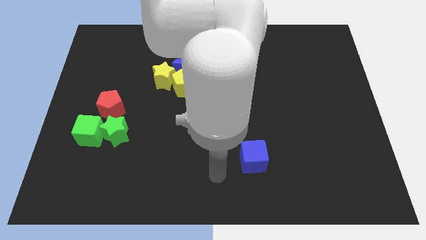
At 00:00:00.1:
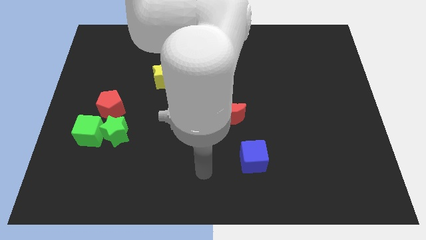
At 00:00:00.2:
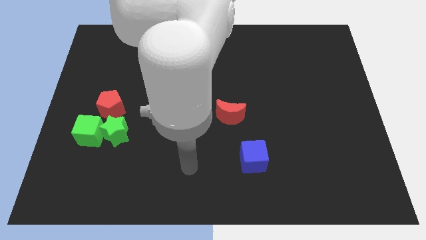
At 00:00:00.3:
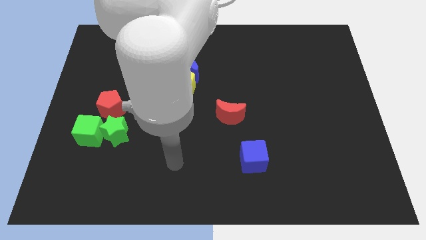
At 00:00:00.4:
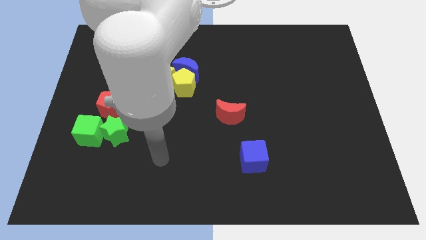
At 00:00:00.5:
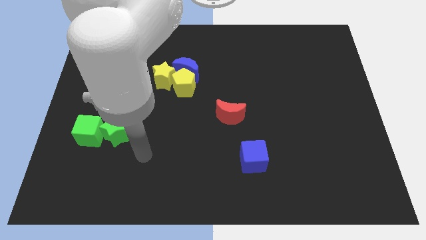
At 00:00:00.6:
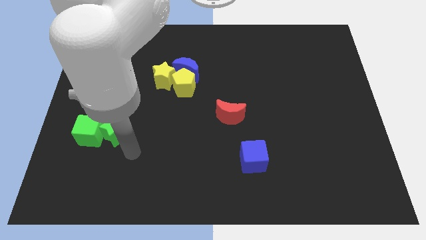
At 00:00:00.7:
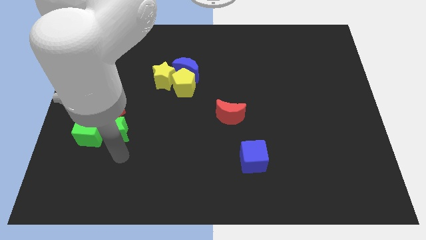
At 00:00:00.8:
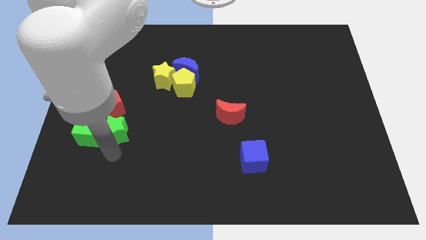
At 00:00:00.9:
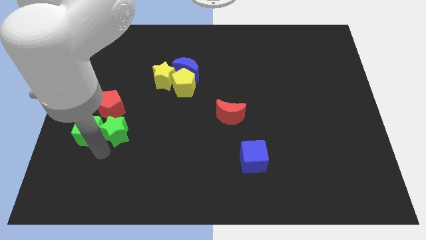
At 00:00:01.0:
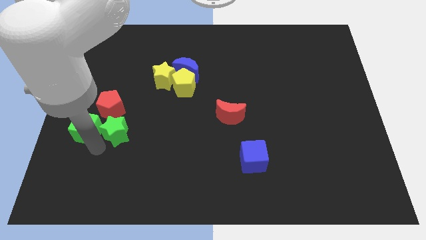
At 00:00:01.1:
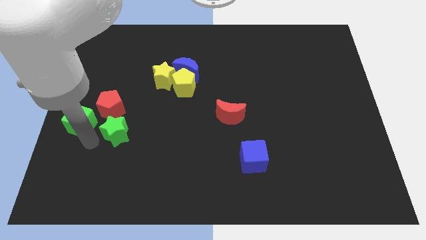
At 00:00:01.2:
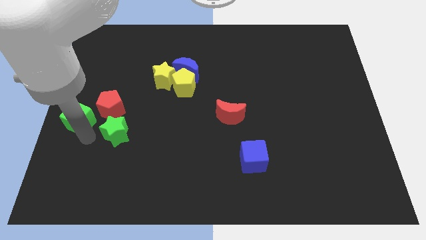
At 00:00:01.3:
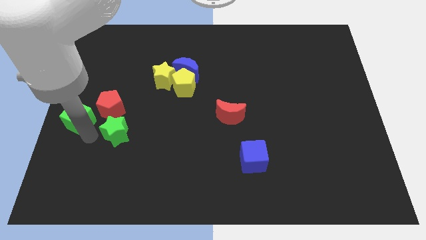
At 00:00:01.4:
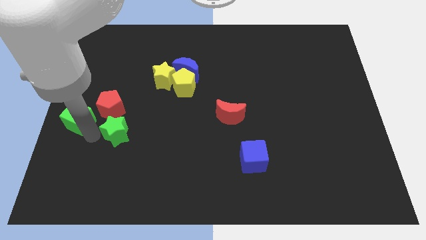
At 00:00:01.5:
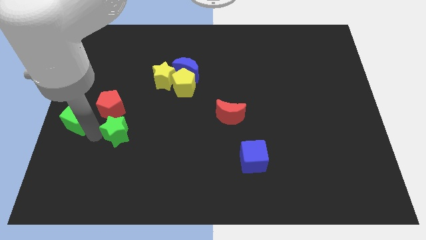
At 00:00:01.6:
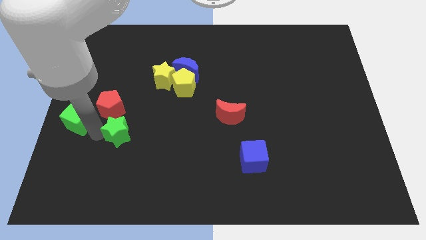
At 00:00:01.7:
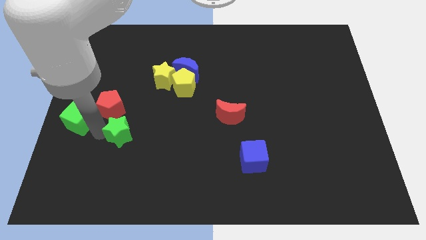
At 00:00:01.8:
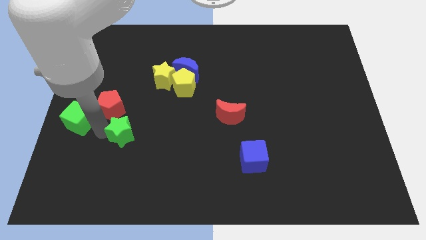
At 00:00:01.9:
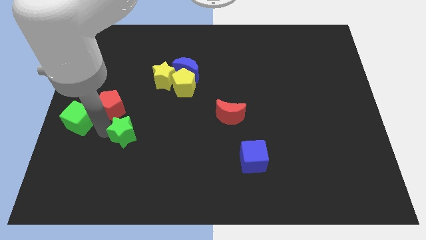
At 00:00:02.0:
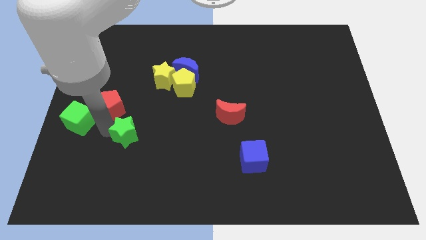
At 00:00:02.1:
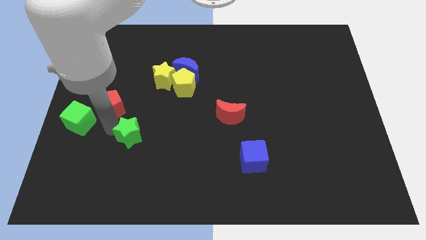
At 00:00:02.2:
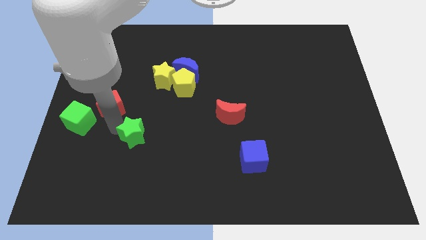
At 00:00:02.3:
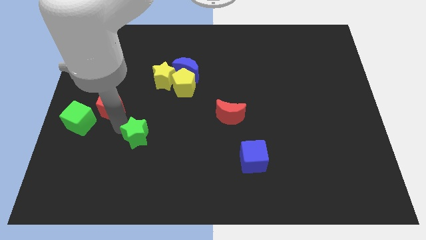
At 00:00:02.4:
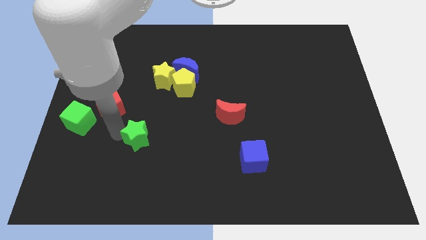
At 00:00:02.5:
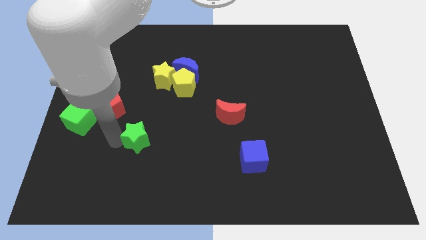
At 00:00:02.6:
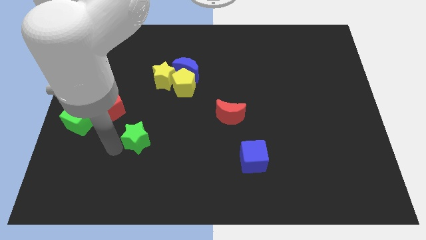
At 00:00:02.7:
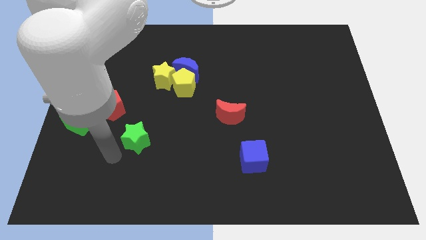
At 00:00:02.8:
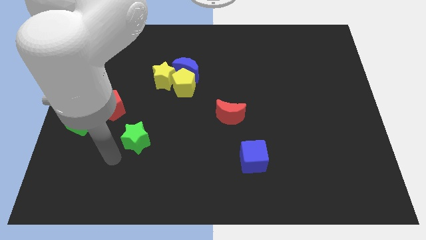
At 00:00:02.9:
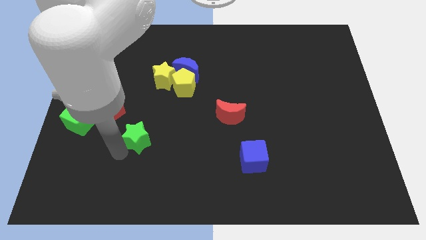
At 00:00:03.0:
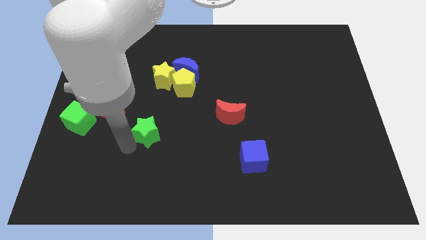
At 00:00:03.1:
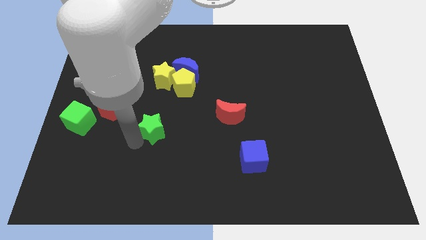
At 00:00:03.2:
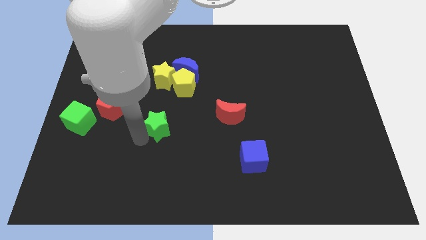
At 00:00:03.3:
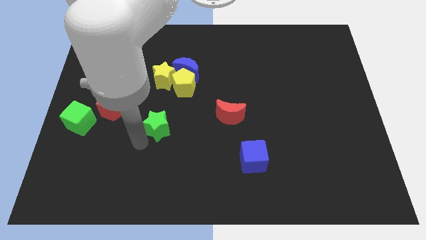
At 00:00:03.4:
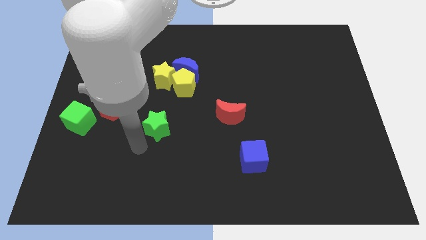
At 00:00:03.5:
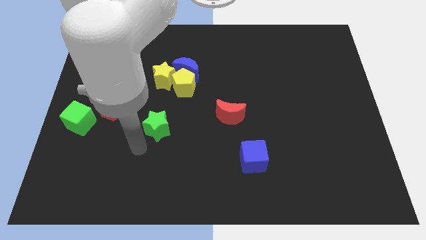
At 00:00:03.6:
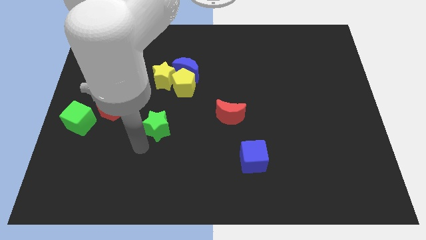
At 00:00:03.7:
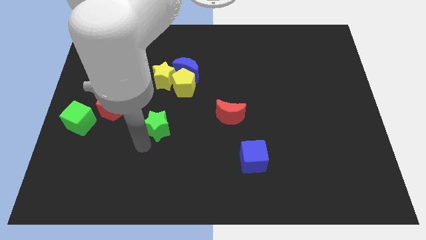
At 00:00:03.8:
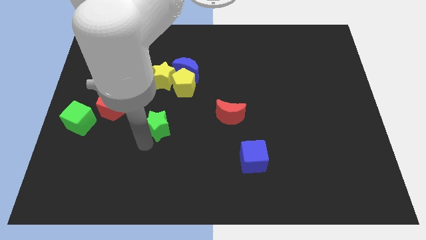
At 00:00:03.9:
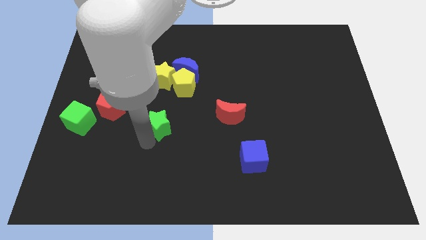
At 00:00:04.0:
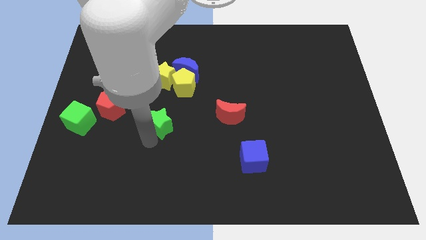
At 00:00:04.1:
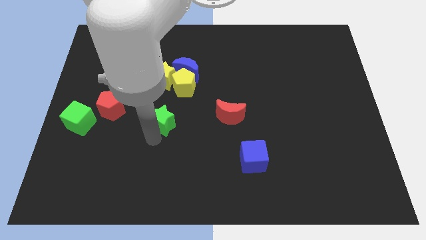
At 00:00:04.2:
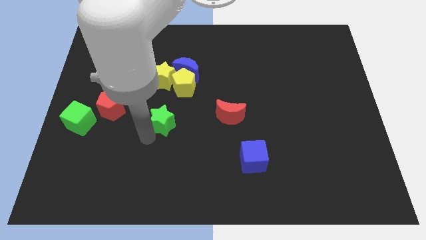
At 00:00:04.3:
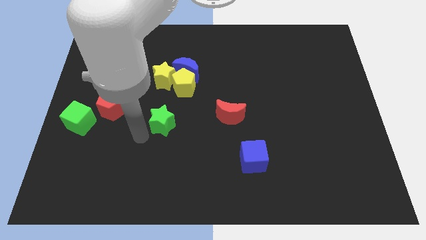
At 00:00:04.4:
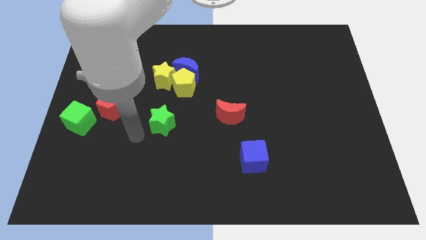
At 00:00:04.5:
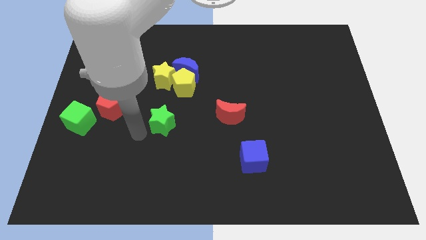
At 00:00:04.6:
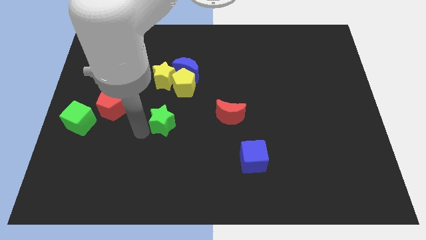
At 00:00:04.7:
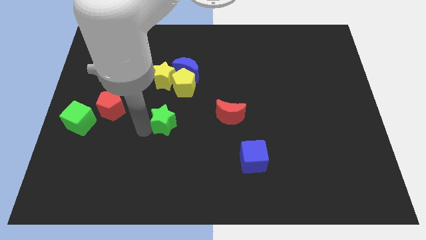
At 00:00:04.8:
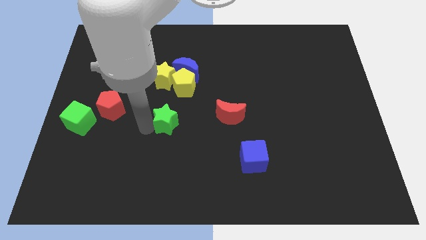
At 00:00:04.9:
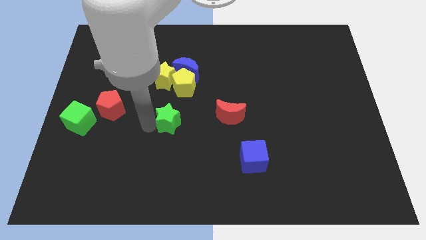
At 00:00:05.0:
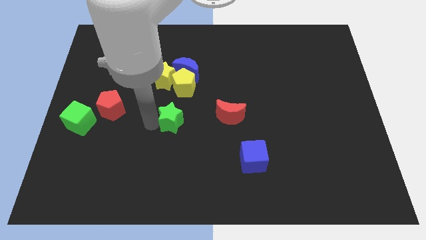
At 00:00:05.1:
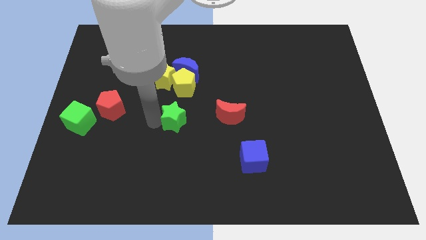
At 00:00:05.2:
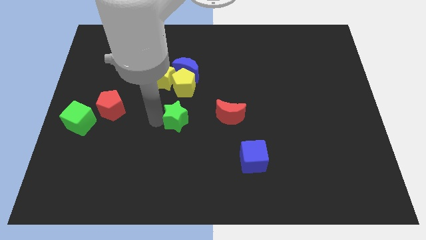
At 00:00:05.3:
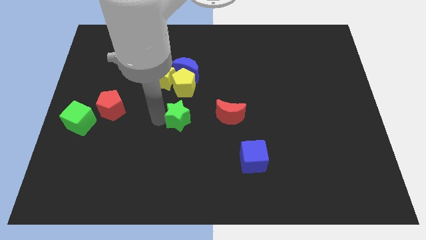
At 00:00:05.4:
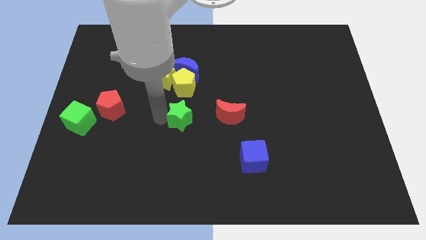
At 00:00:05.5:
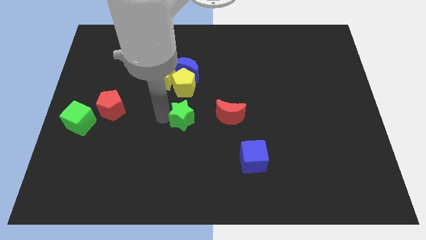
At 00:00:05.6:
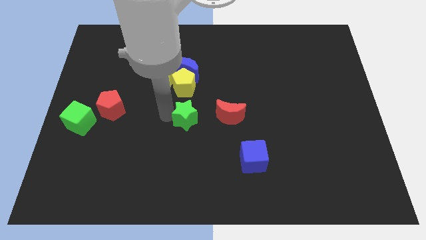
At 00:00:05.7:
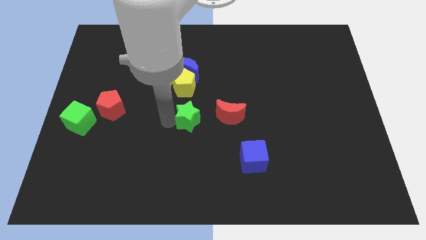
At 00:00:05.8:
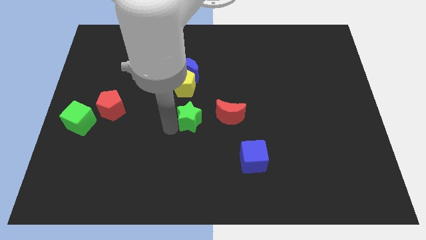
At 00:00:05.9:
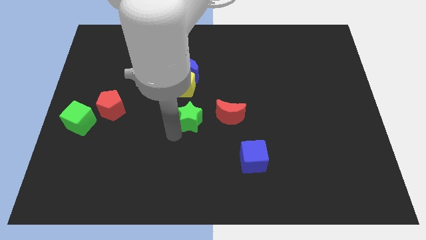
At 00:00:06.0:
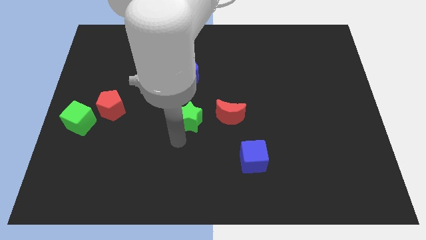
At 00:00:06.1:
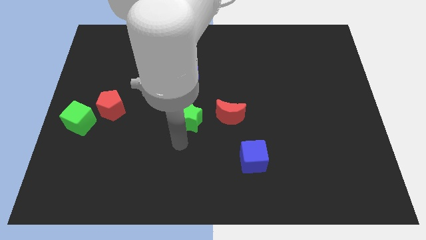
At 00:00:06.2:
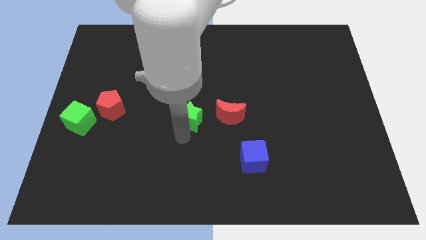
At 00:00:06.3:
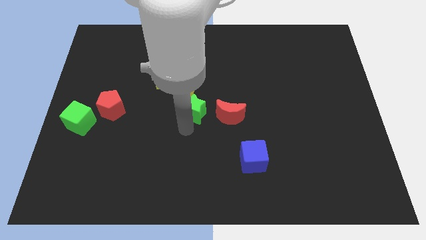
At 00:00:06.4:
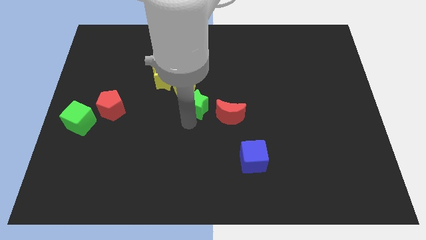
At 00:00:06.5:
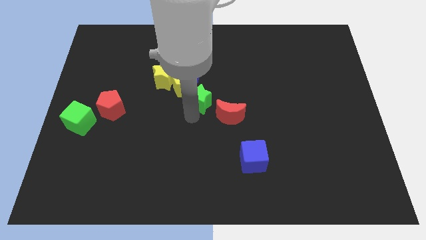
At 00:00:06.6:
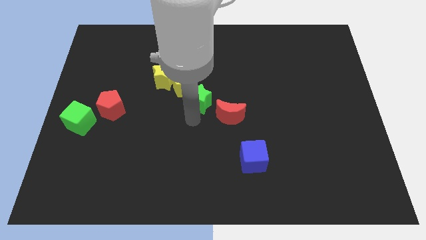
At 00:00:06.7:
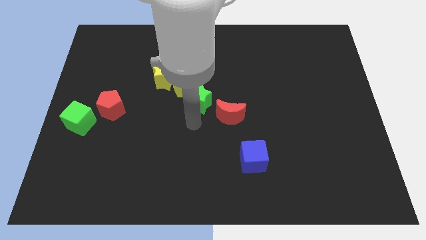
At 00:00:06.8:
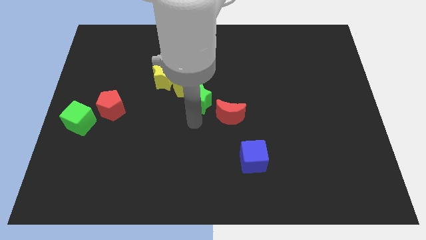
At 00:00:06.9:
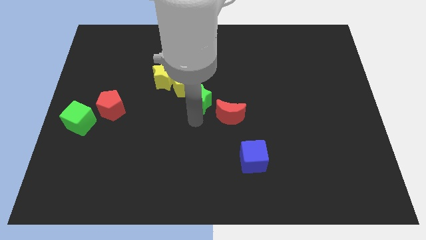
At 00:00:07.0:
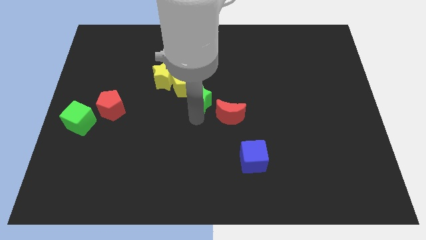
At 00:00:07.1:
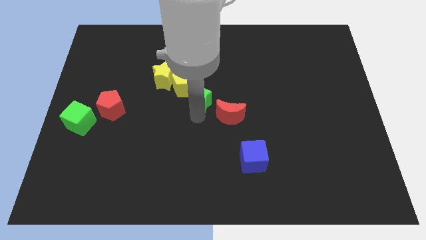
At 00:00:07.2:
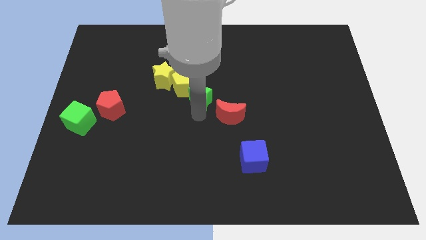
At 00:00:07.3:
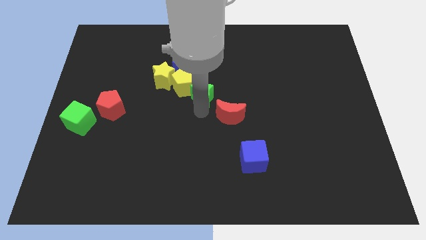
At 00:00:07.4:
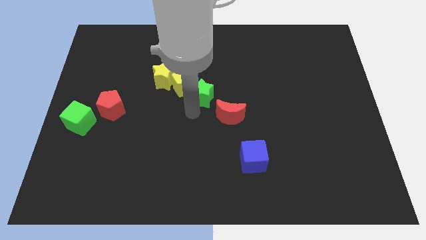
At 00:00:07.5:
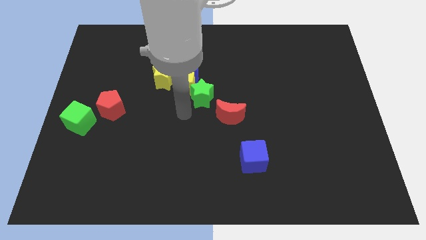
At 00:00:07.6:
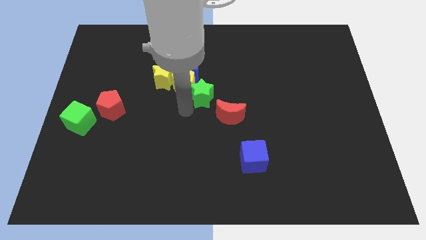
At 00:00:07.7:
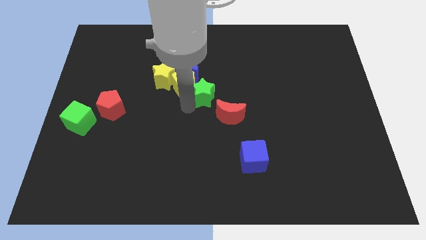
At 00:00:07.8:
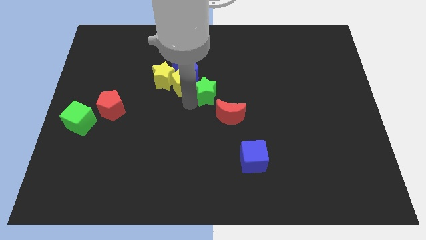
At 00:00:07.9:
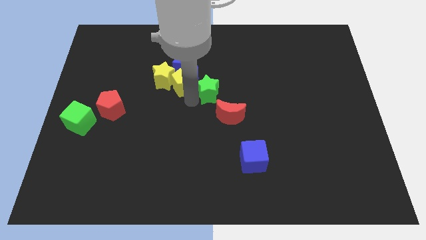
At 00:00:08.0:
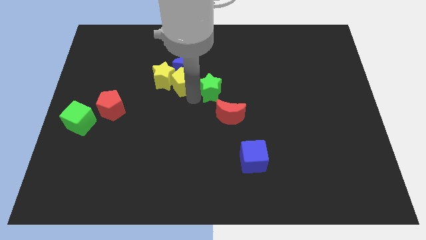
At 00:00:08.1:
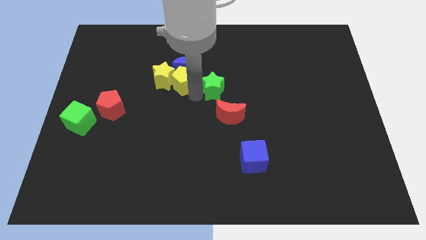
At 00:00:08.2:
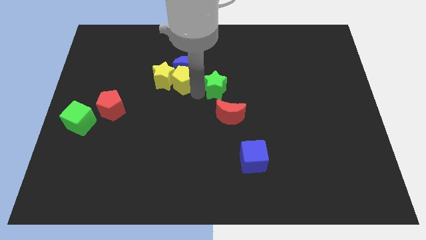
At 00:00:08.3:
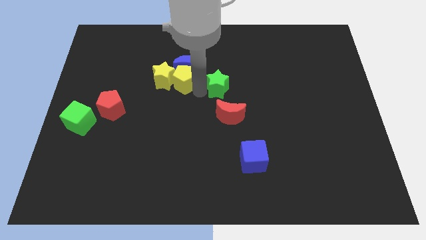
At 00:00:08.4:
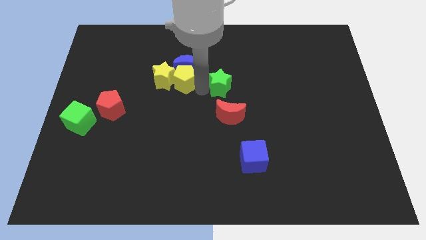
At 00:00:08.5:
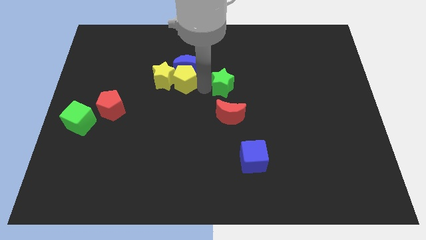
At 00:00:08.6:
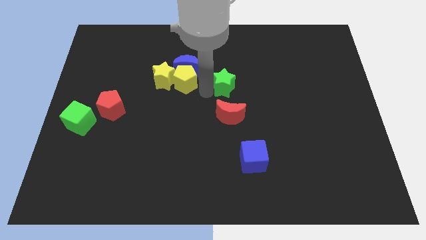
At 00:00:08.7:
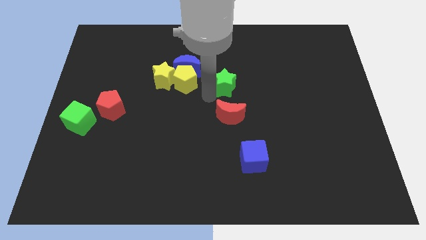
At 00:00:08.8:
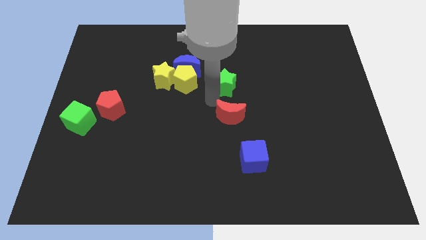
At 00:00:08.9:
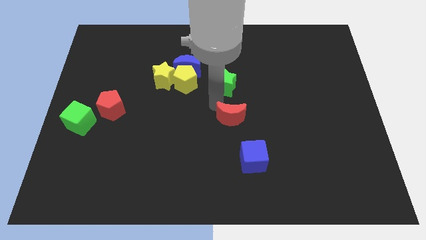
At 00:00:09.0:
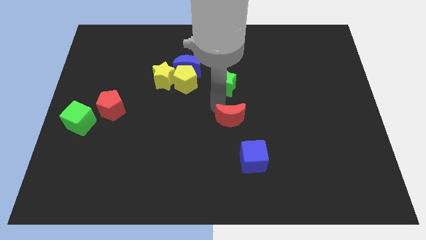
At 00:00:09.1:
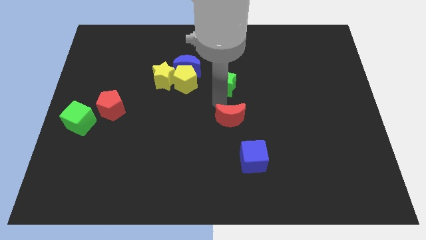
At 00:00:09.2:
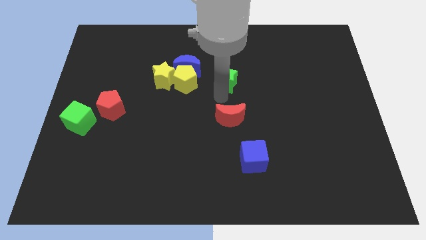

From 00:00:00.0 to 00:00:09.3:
slide the green star just right of the blue moon
